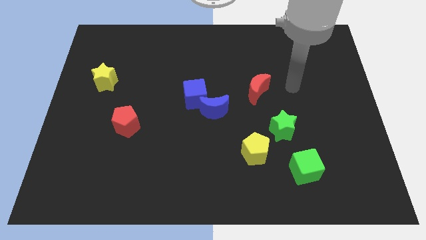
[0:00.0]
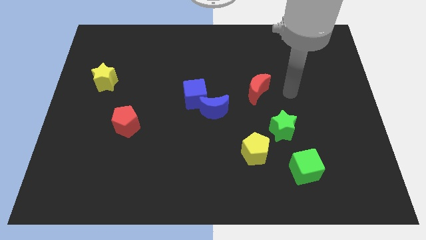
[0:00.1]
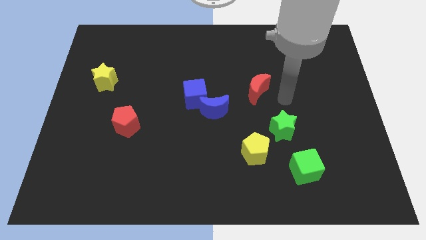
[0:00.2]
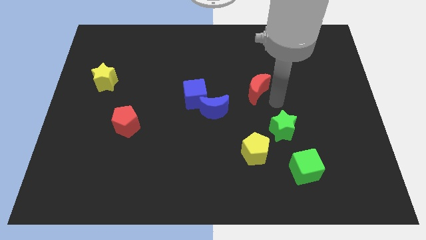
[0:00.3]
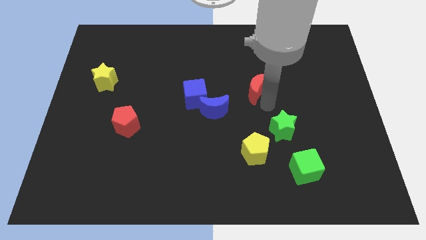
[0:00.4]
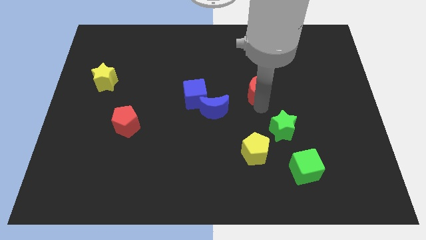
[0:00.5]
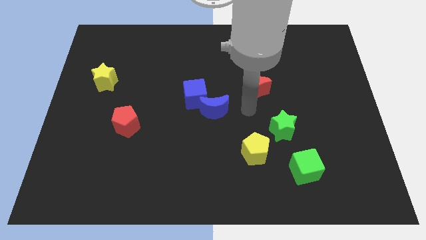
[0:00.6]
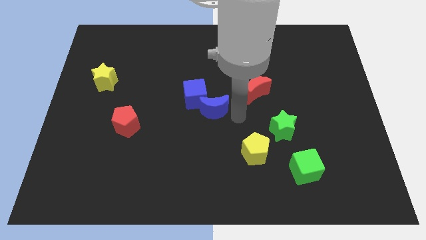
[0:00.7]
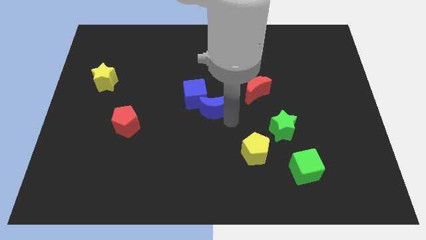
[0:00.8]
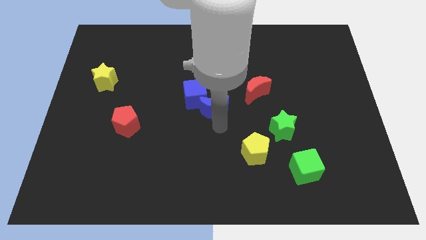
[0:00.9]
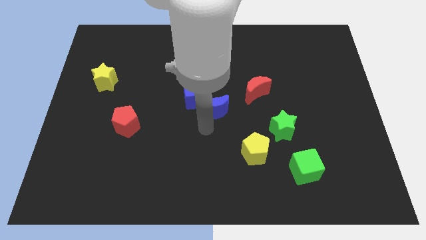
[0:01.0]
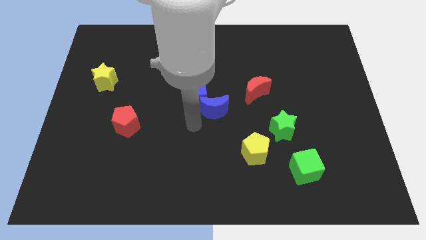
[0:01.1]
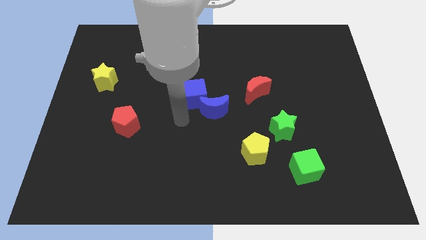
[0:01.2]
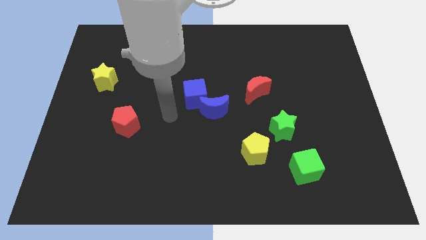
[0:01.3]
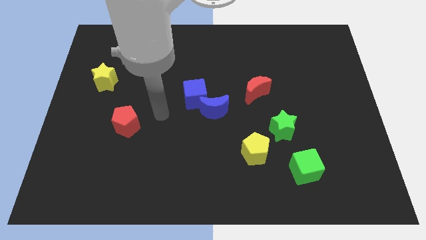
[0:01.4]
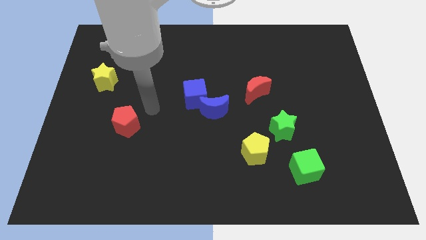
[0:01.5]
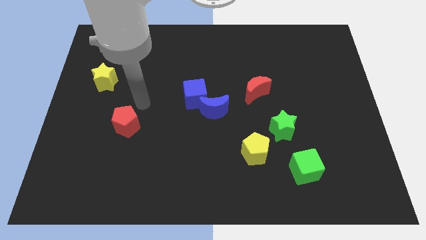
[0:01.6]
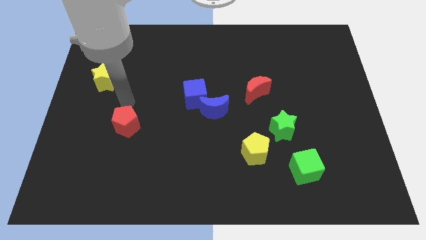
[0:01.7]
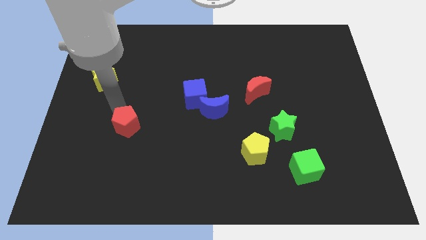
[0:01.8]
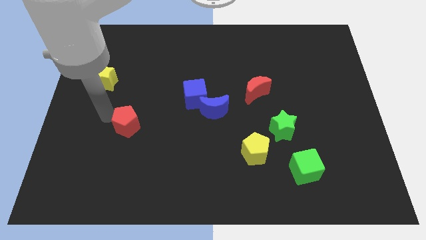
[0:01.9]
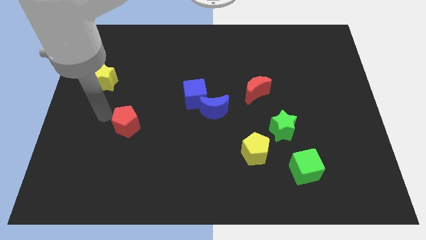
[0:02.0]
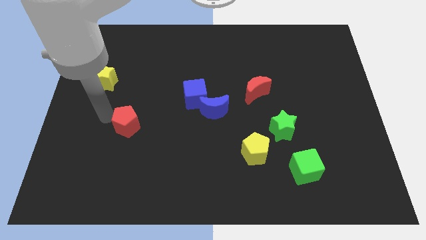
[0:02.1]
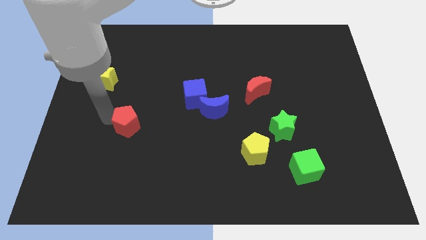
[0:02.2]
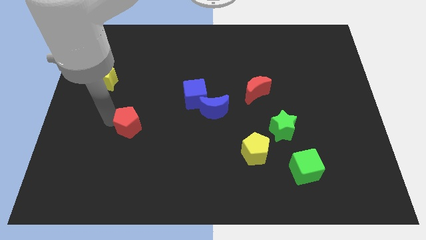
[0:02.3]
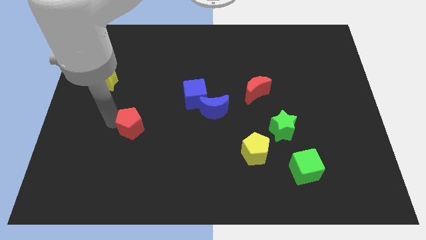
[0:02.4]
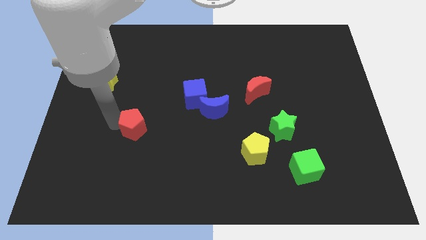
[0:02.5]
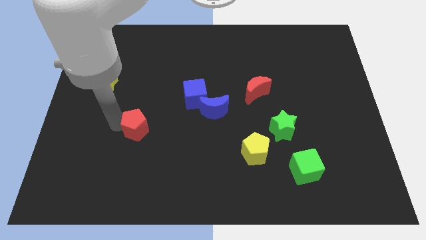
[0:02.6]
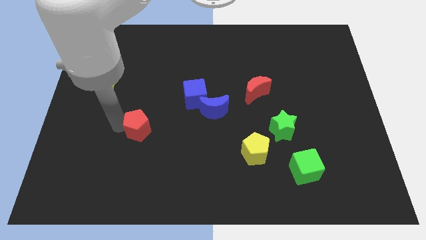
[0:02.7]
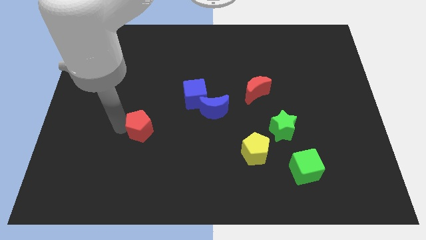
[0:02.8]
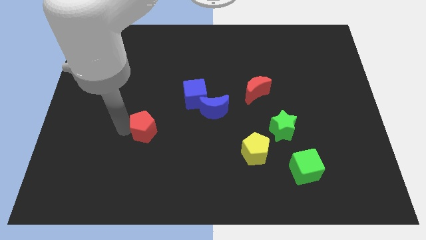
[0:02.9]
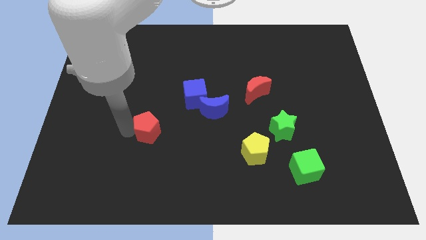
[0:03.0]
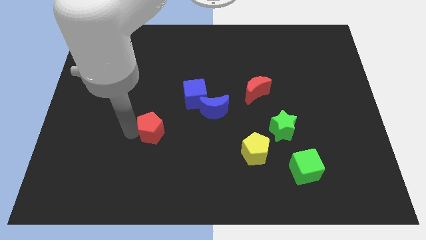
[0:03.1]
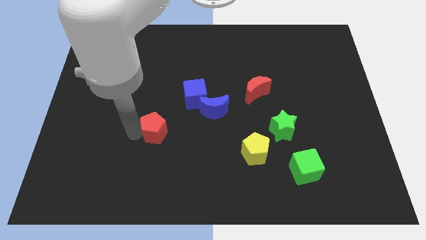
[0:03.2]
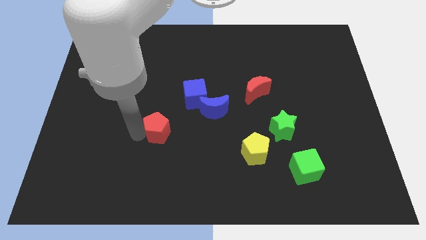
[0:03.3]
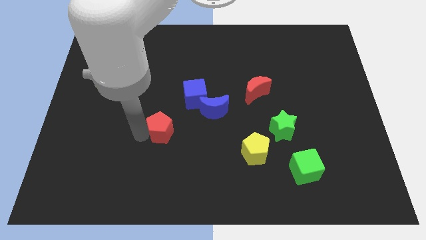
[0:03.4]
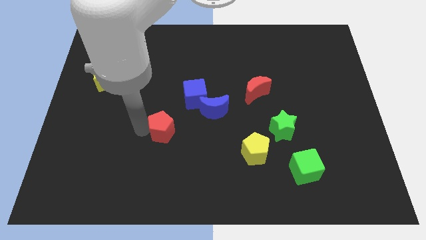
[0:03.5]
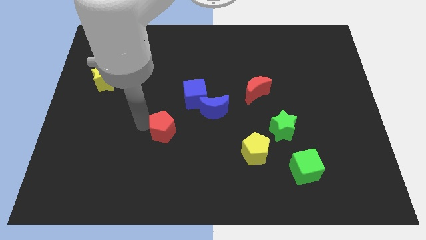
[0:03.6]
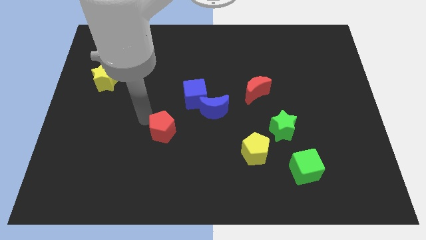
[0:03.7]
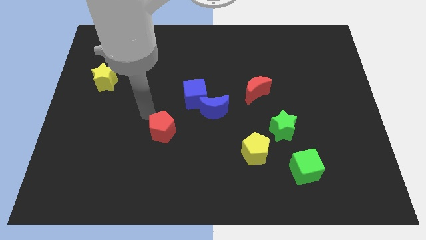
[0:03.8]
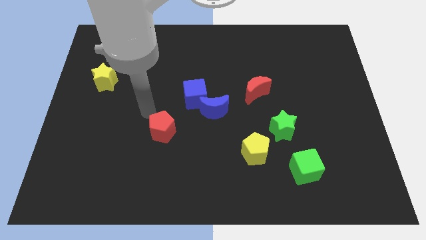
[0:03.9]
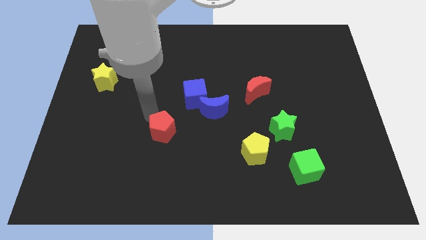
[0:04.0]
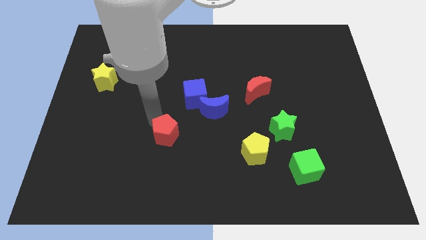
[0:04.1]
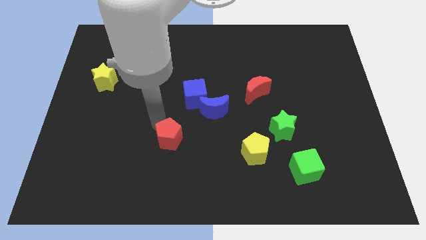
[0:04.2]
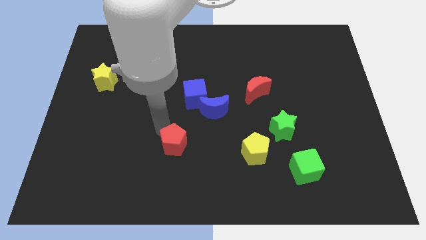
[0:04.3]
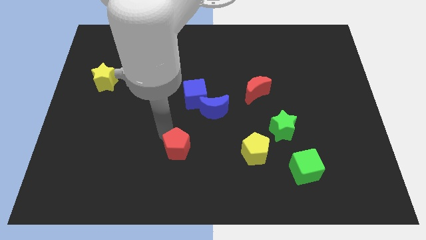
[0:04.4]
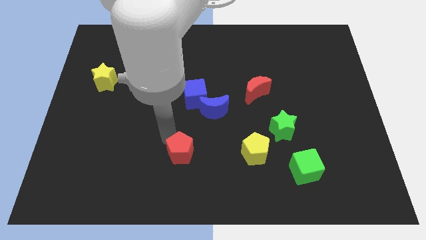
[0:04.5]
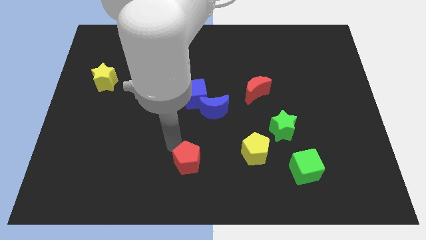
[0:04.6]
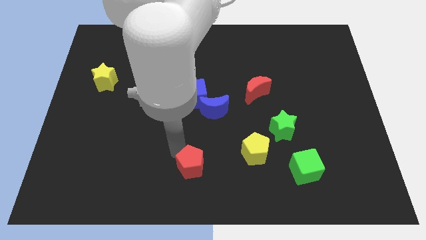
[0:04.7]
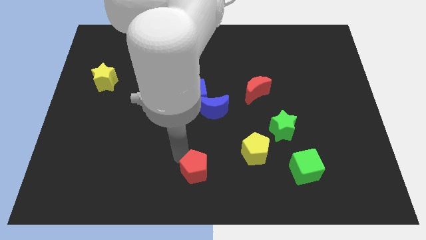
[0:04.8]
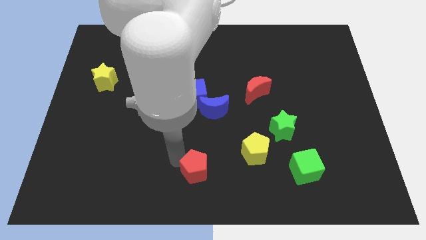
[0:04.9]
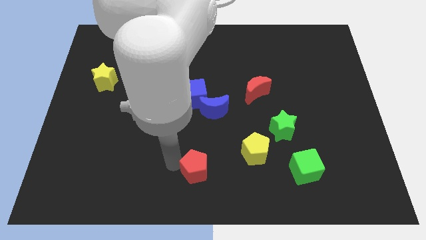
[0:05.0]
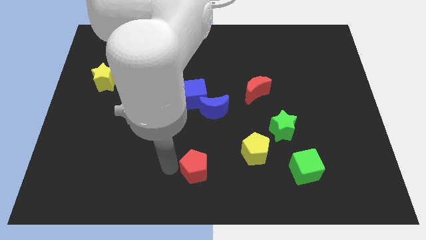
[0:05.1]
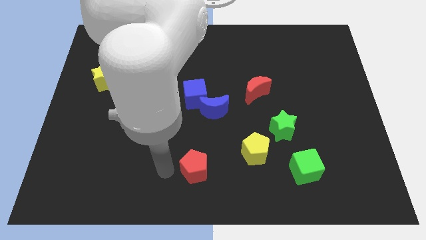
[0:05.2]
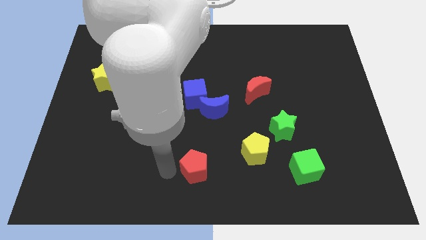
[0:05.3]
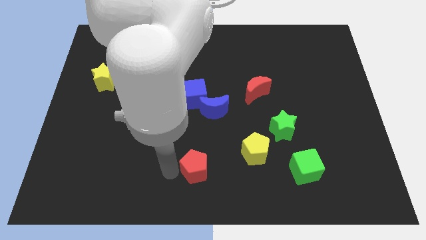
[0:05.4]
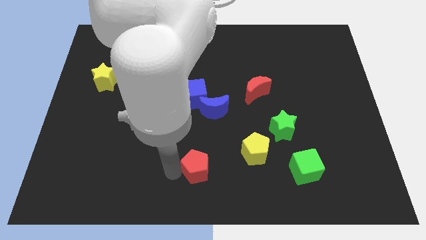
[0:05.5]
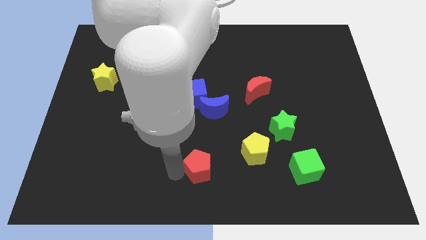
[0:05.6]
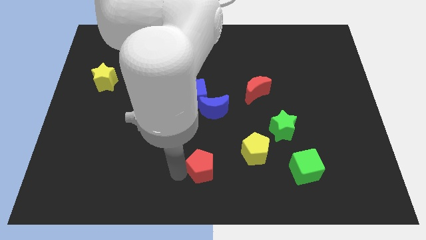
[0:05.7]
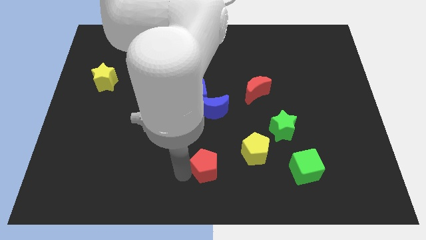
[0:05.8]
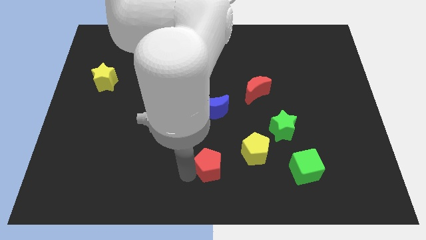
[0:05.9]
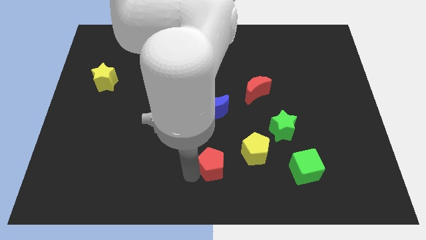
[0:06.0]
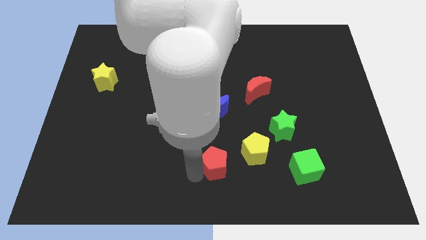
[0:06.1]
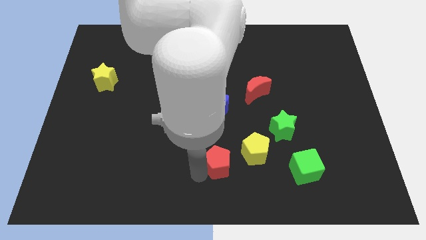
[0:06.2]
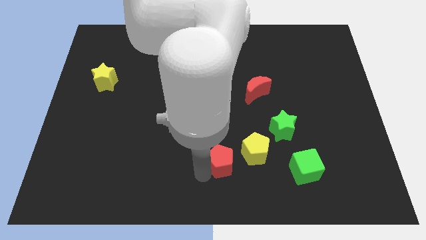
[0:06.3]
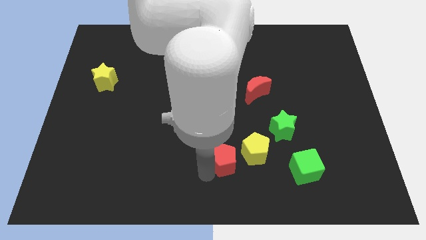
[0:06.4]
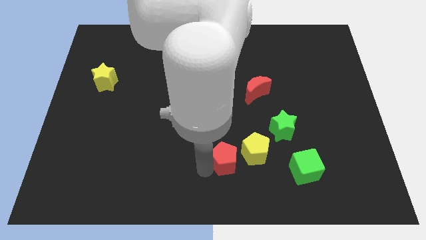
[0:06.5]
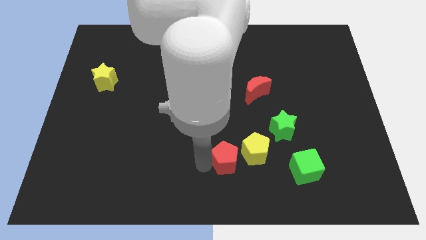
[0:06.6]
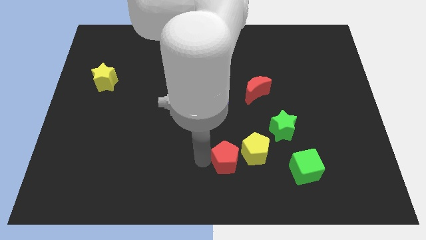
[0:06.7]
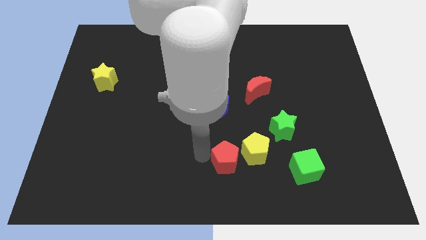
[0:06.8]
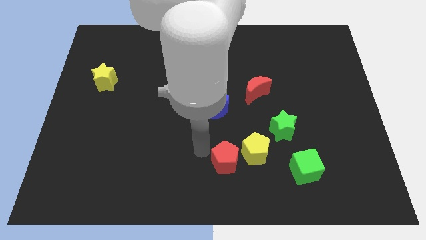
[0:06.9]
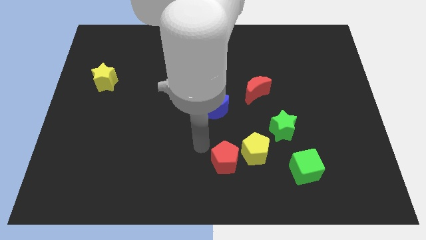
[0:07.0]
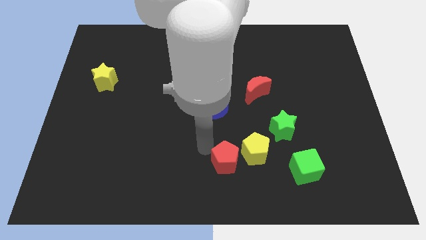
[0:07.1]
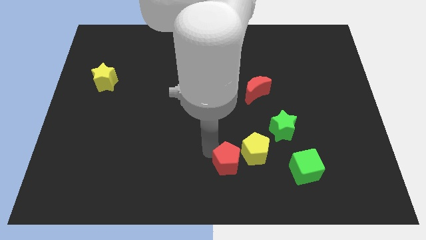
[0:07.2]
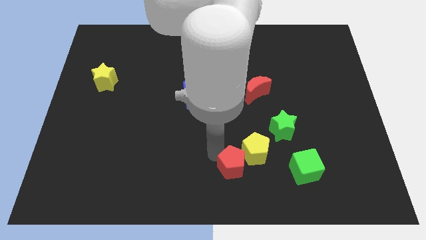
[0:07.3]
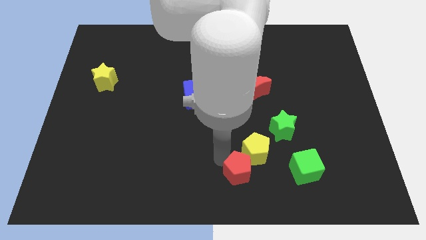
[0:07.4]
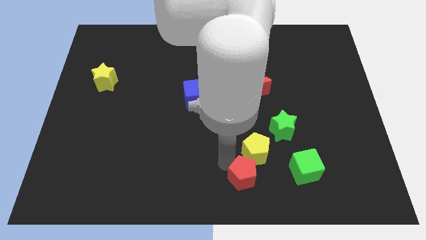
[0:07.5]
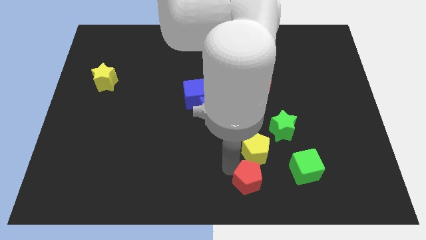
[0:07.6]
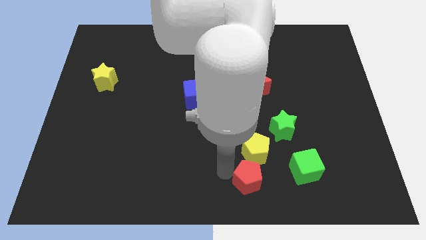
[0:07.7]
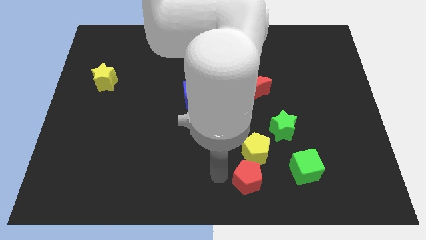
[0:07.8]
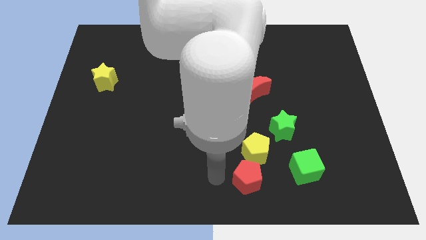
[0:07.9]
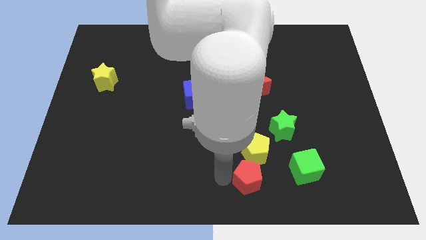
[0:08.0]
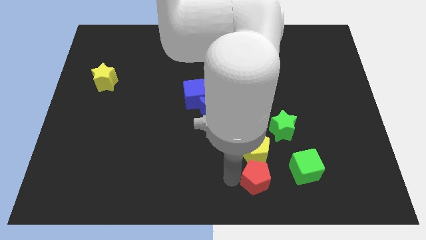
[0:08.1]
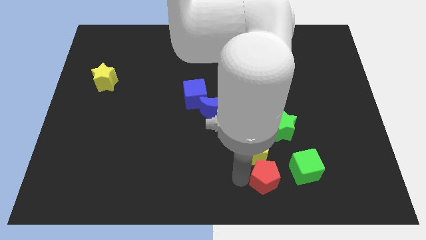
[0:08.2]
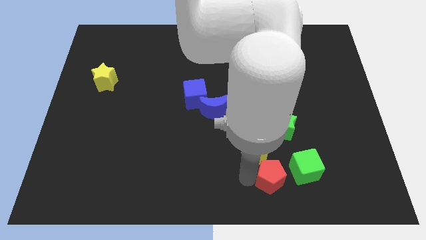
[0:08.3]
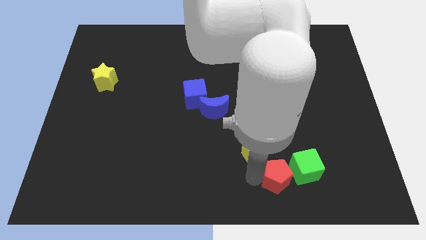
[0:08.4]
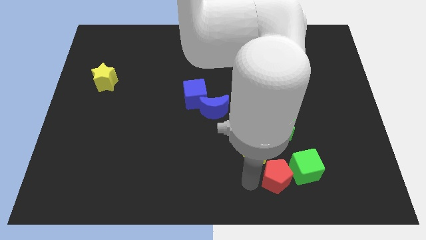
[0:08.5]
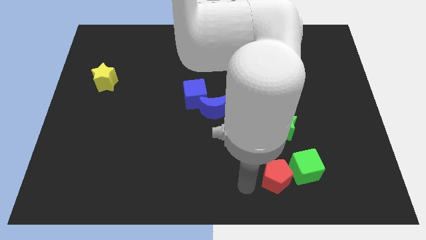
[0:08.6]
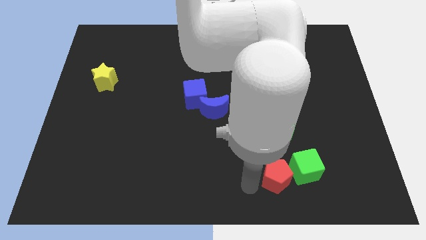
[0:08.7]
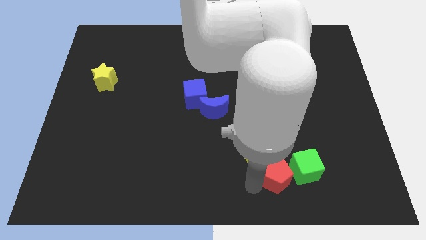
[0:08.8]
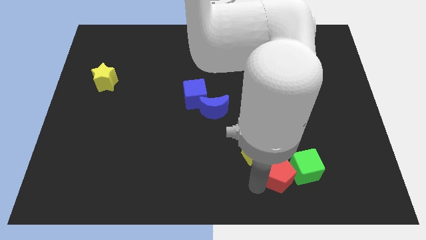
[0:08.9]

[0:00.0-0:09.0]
put the red pentagon towards the green cube
